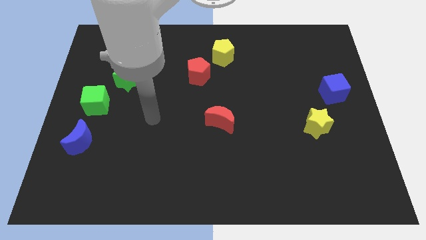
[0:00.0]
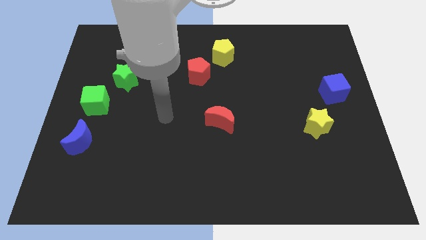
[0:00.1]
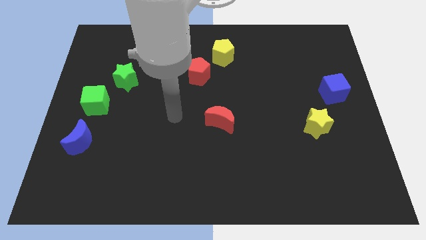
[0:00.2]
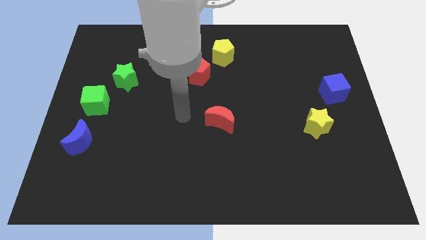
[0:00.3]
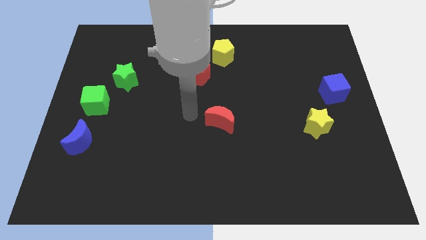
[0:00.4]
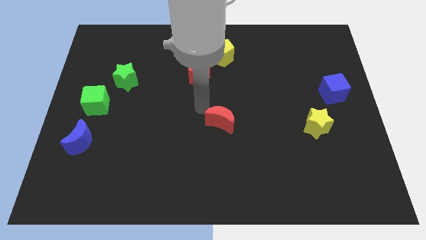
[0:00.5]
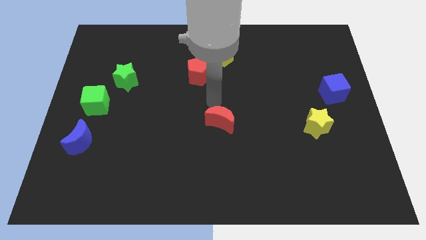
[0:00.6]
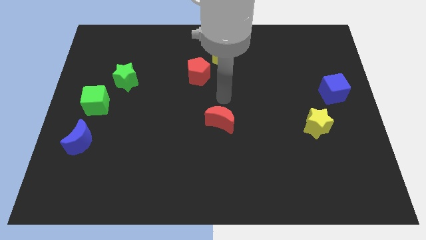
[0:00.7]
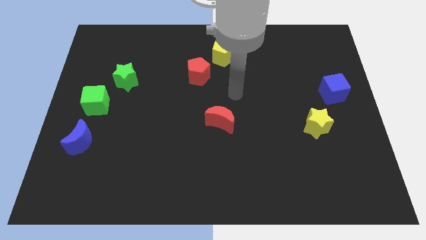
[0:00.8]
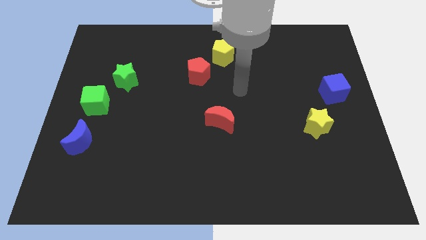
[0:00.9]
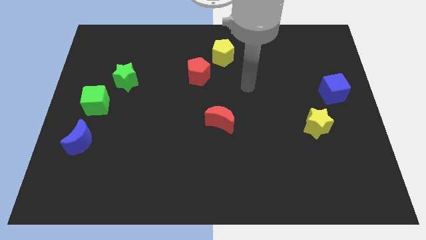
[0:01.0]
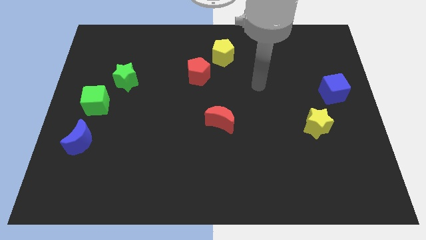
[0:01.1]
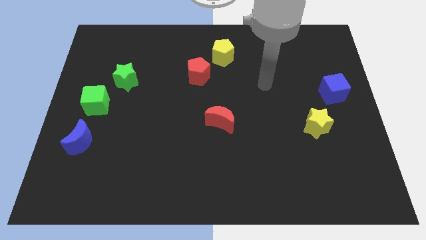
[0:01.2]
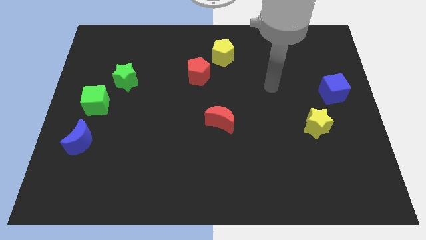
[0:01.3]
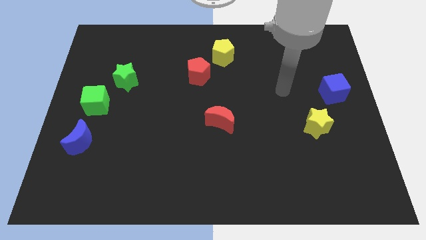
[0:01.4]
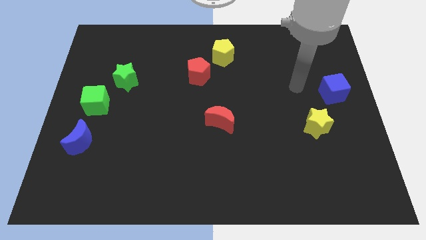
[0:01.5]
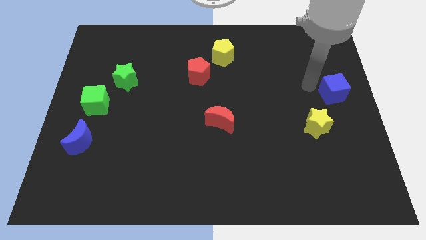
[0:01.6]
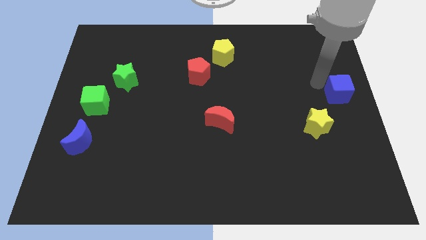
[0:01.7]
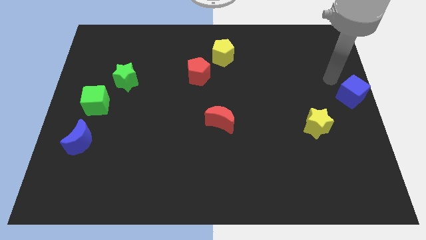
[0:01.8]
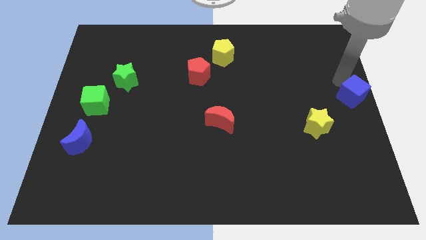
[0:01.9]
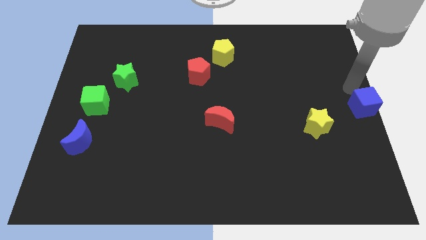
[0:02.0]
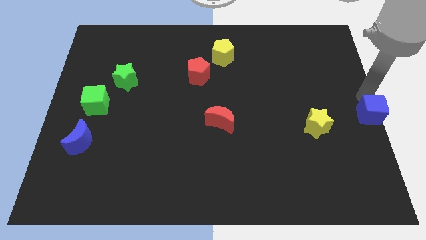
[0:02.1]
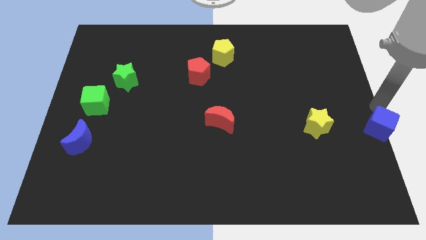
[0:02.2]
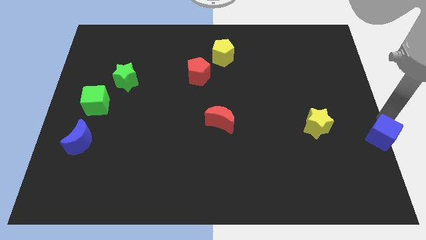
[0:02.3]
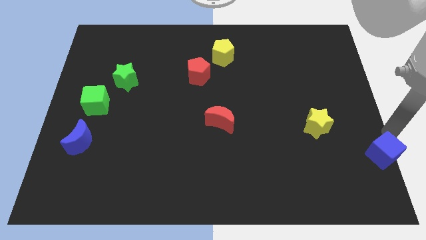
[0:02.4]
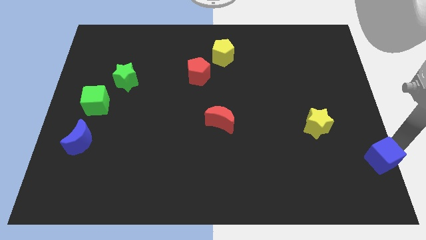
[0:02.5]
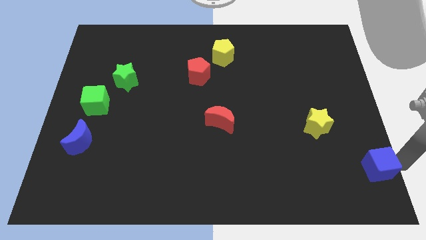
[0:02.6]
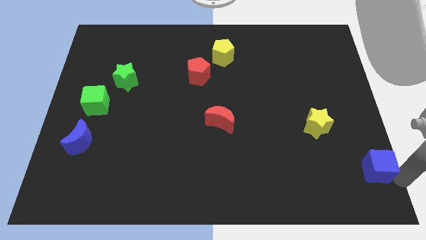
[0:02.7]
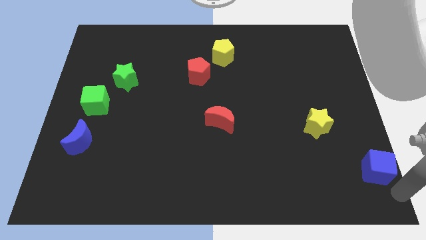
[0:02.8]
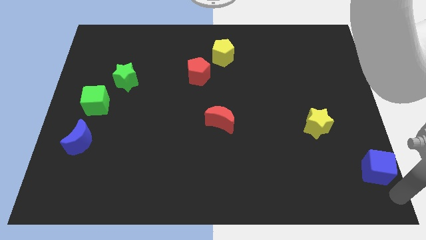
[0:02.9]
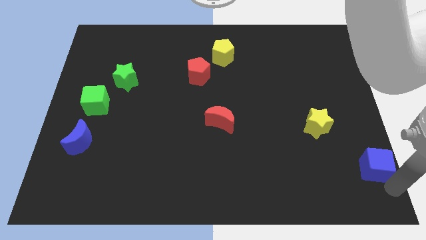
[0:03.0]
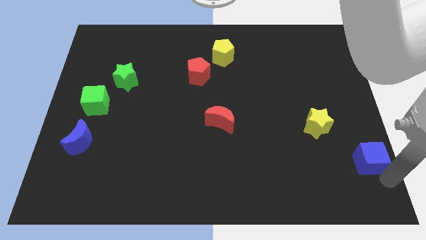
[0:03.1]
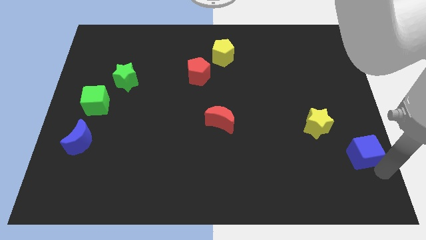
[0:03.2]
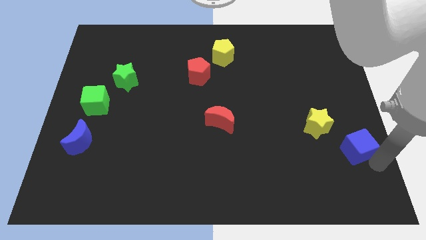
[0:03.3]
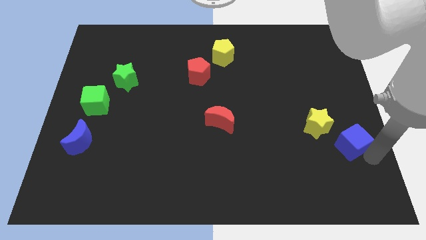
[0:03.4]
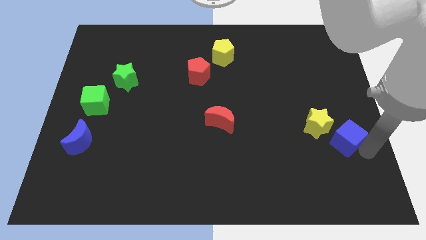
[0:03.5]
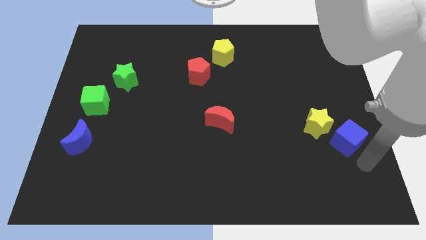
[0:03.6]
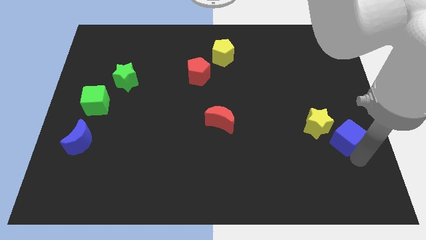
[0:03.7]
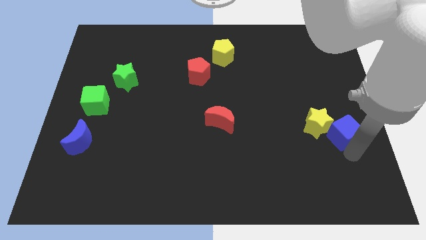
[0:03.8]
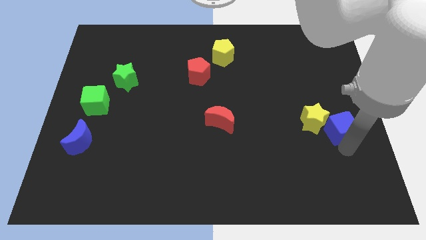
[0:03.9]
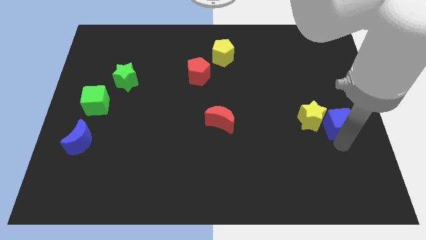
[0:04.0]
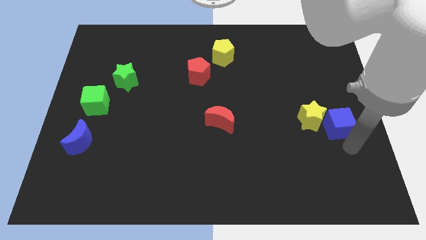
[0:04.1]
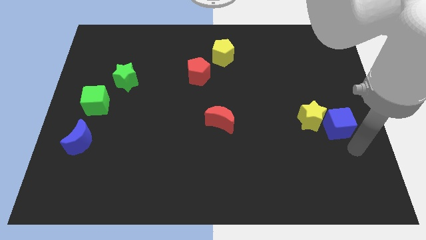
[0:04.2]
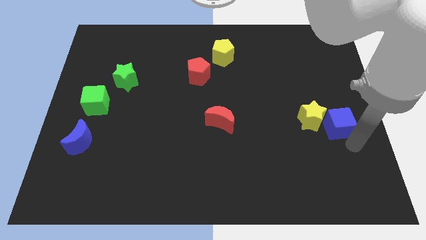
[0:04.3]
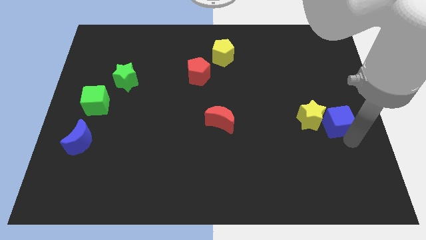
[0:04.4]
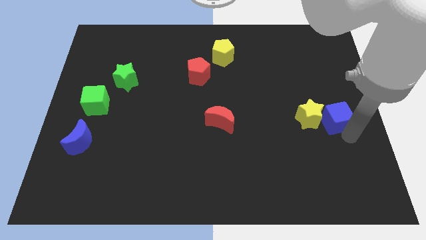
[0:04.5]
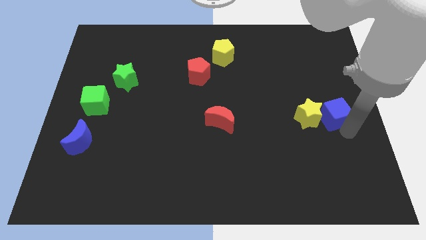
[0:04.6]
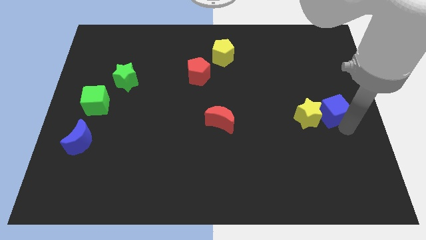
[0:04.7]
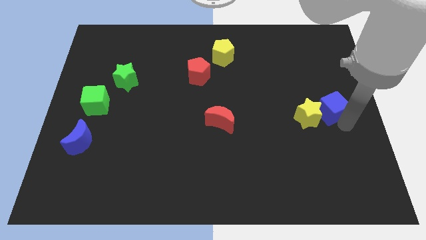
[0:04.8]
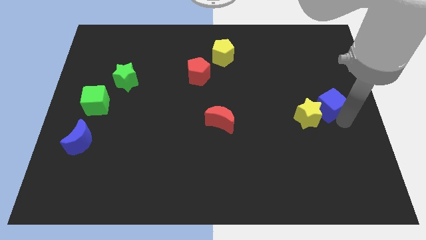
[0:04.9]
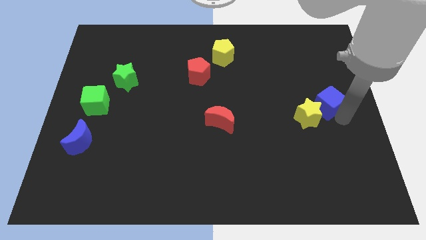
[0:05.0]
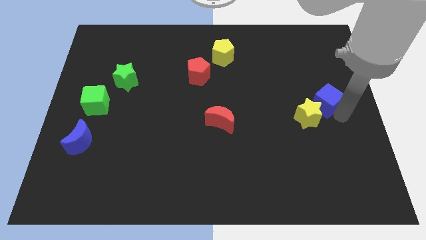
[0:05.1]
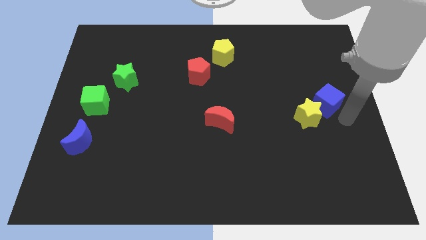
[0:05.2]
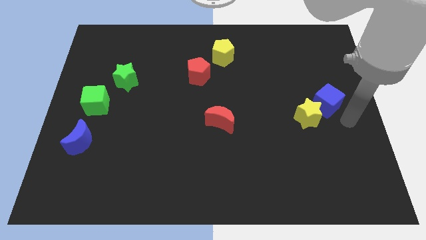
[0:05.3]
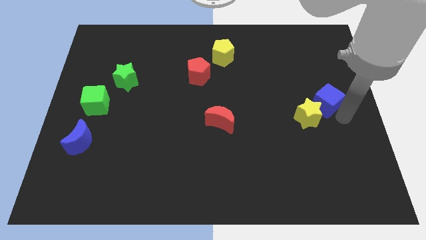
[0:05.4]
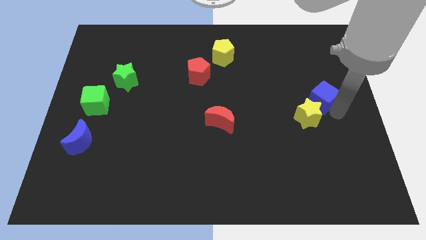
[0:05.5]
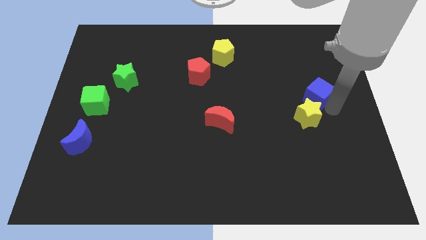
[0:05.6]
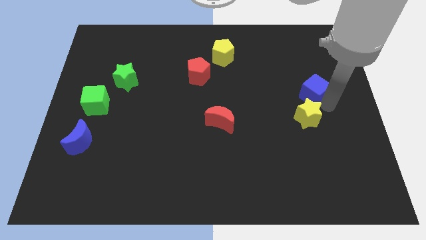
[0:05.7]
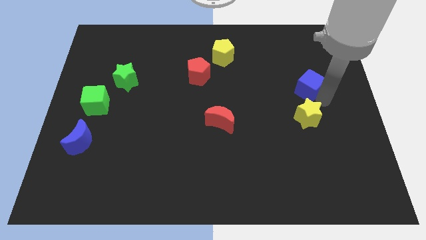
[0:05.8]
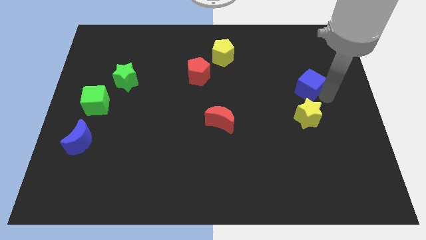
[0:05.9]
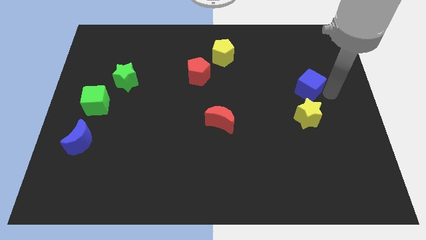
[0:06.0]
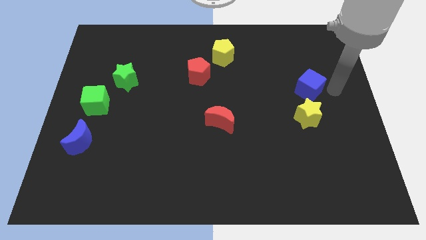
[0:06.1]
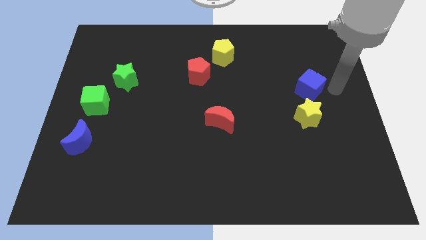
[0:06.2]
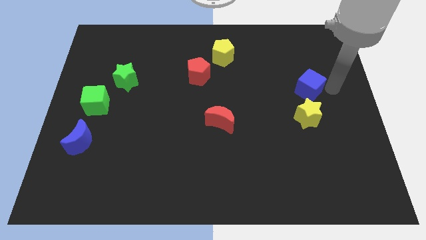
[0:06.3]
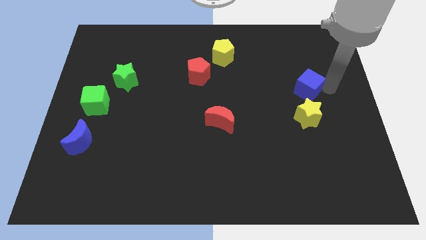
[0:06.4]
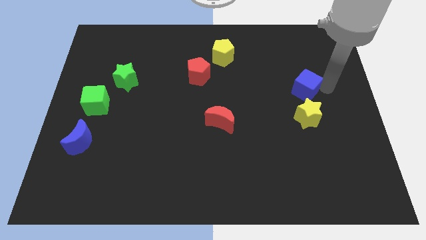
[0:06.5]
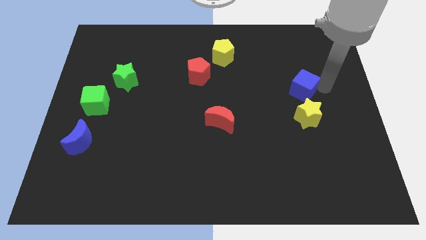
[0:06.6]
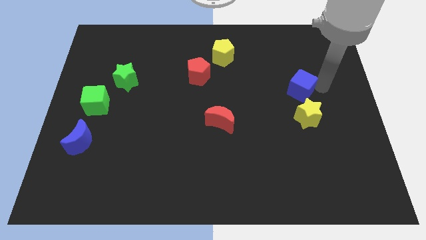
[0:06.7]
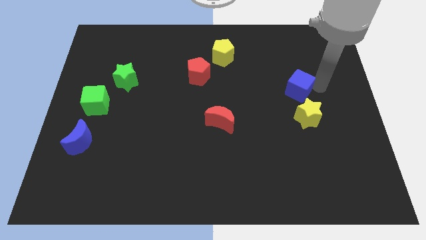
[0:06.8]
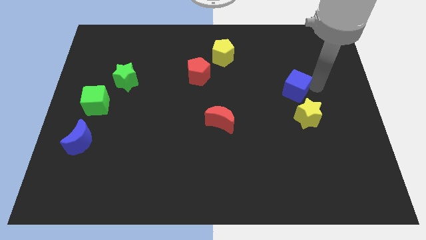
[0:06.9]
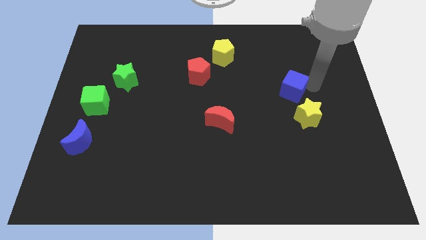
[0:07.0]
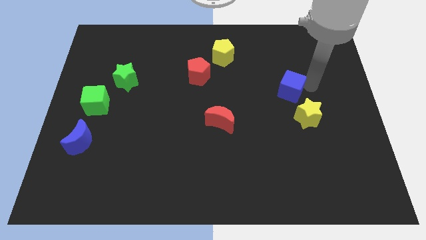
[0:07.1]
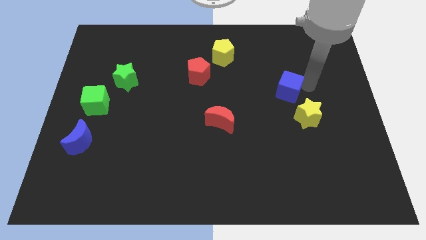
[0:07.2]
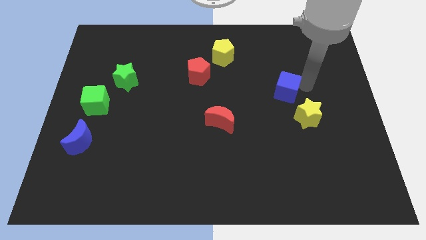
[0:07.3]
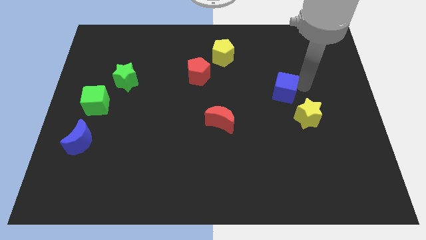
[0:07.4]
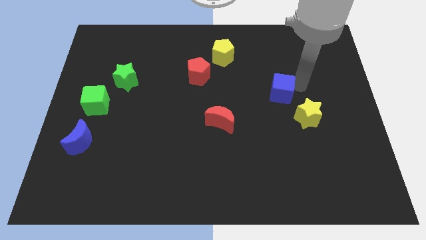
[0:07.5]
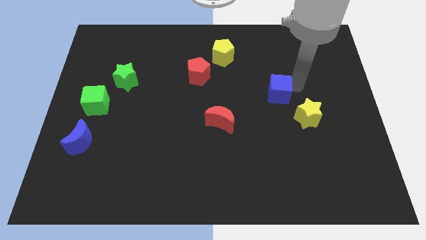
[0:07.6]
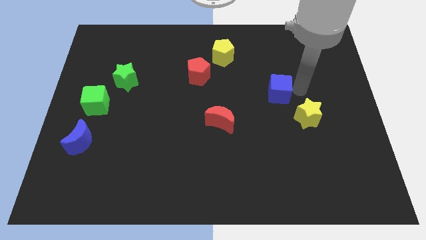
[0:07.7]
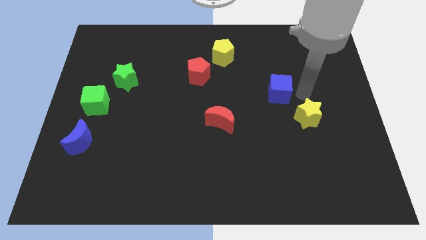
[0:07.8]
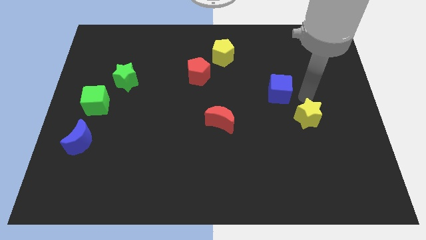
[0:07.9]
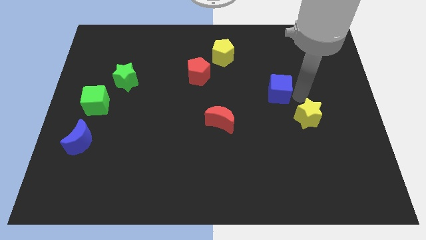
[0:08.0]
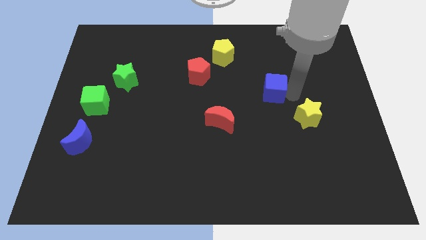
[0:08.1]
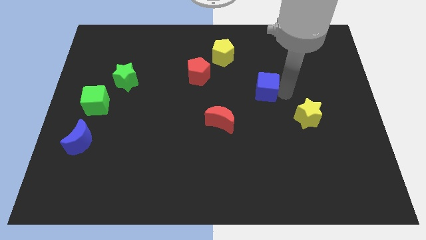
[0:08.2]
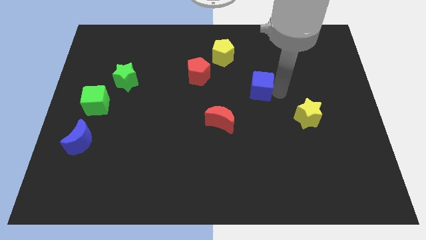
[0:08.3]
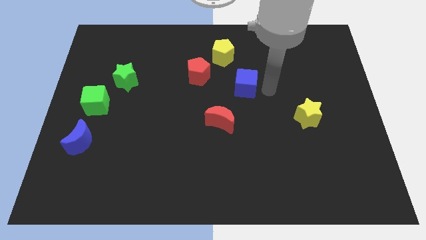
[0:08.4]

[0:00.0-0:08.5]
slide the blue cube to the left
